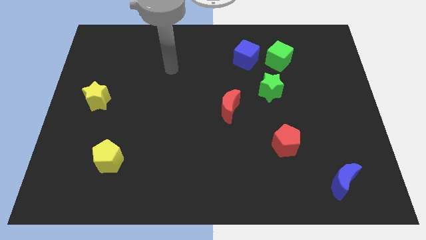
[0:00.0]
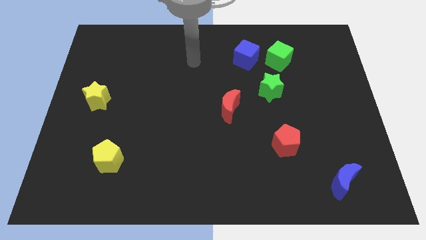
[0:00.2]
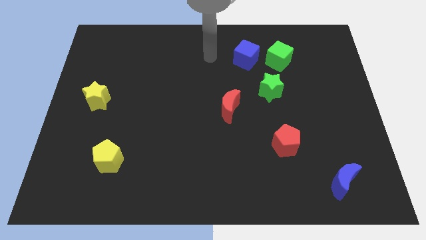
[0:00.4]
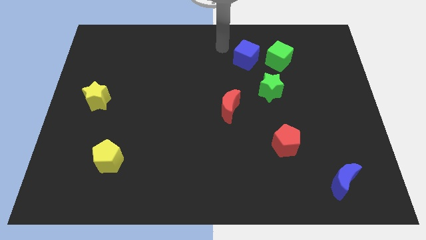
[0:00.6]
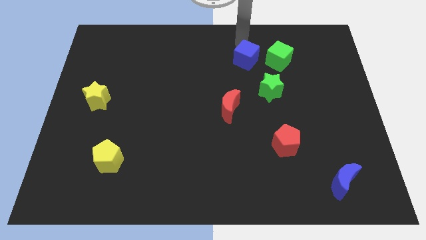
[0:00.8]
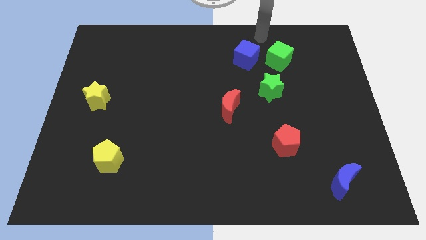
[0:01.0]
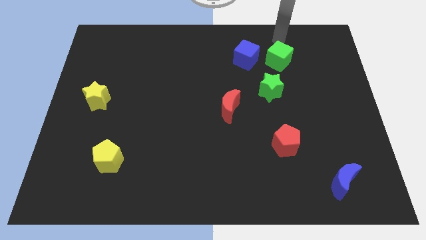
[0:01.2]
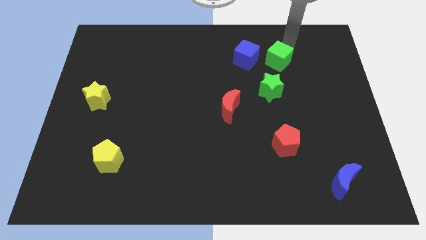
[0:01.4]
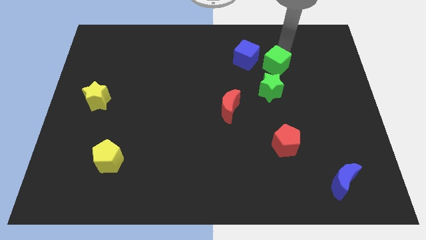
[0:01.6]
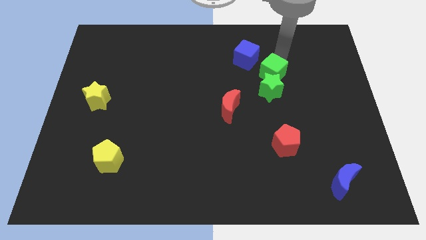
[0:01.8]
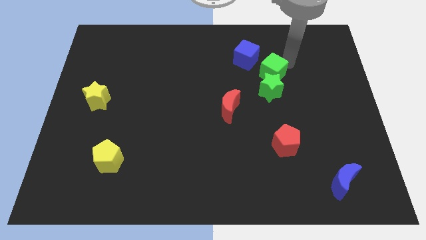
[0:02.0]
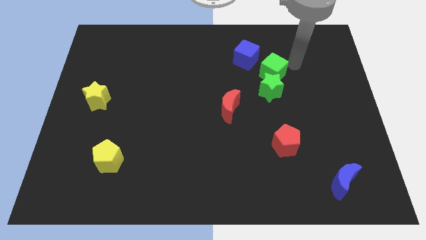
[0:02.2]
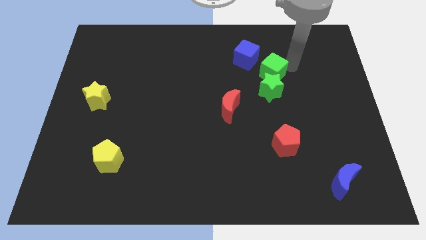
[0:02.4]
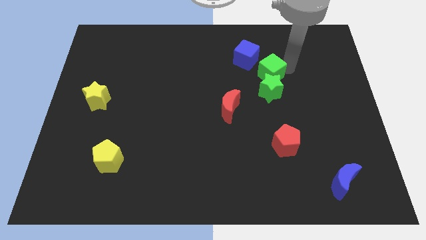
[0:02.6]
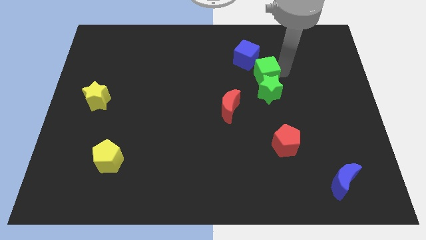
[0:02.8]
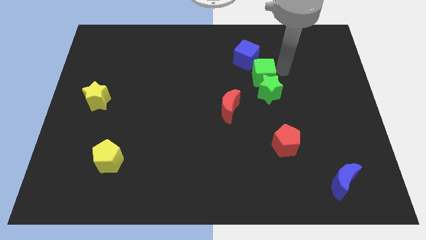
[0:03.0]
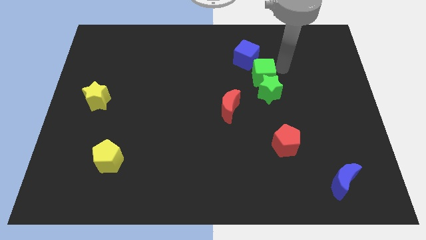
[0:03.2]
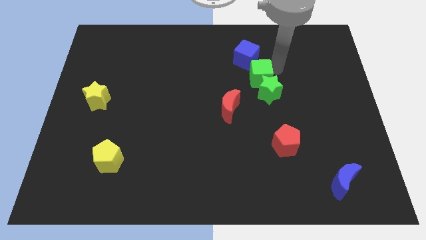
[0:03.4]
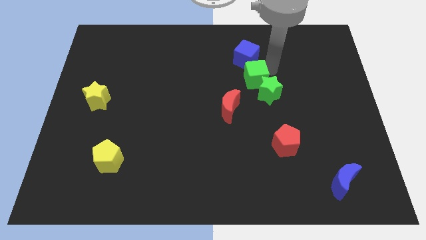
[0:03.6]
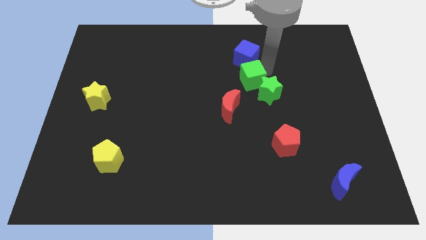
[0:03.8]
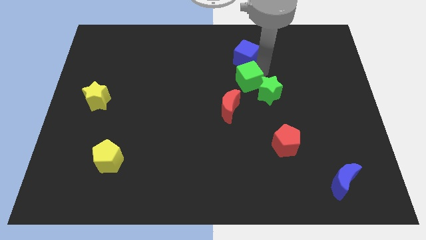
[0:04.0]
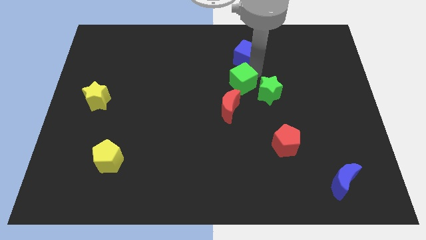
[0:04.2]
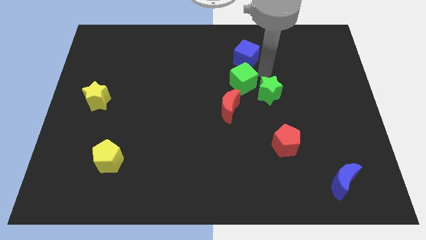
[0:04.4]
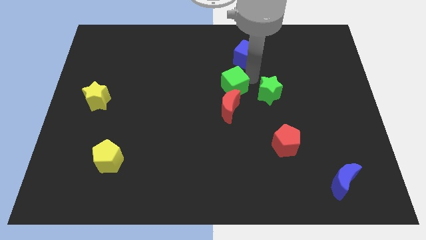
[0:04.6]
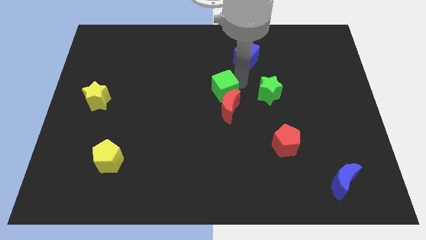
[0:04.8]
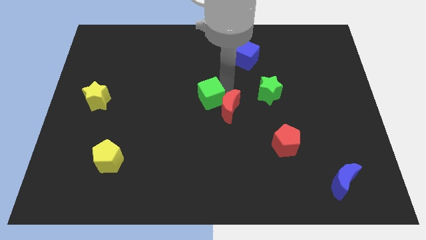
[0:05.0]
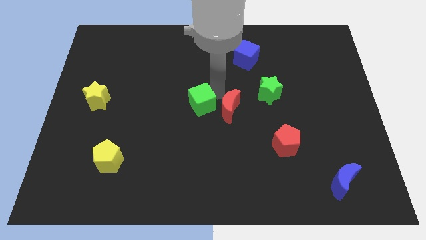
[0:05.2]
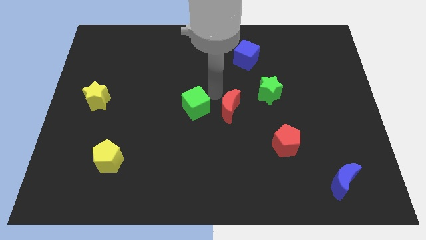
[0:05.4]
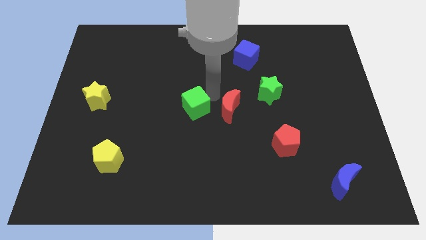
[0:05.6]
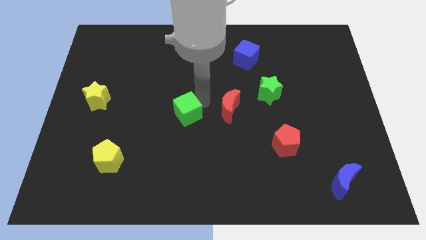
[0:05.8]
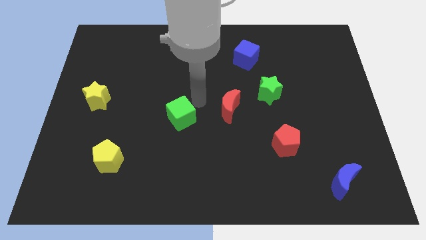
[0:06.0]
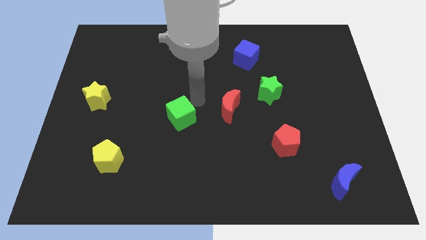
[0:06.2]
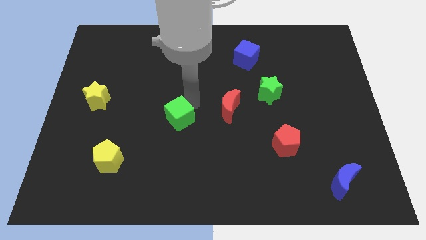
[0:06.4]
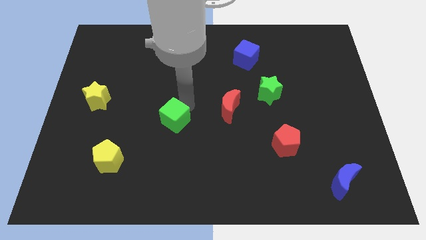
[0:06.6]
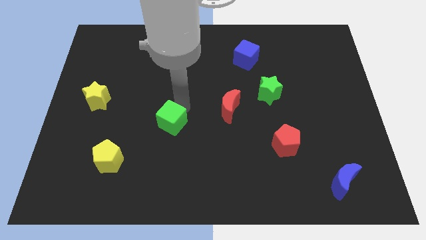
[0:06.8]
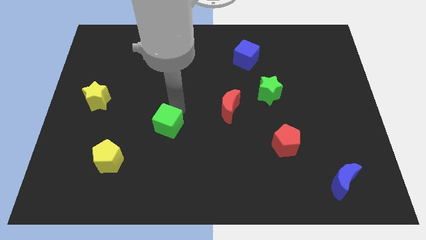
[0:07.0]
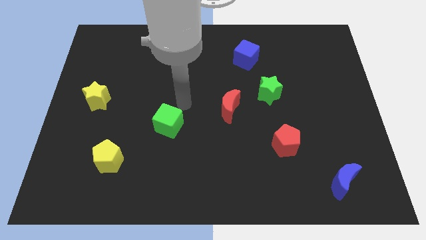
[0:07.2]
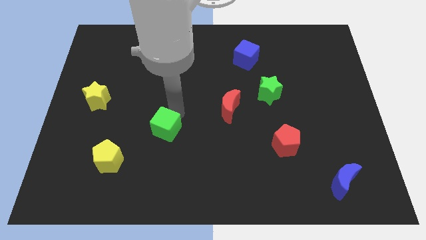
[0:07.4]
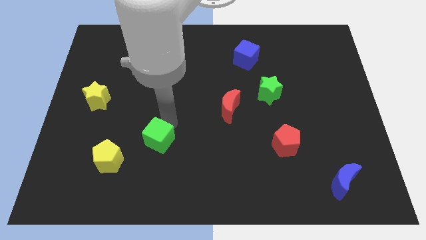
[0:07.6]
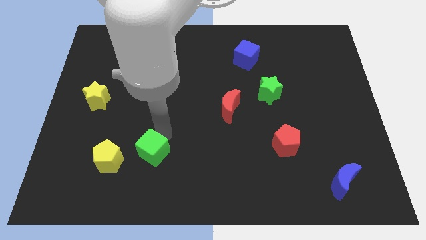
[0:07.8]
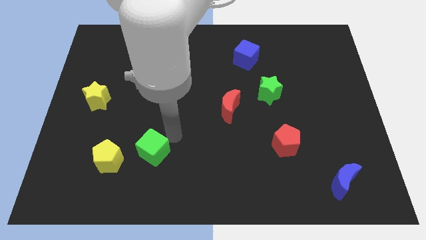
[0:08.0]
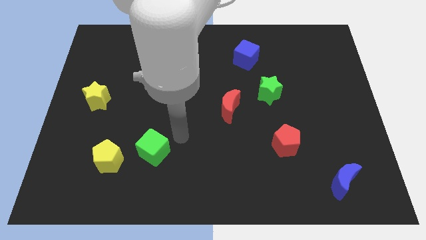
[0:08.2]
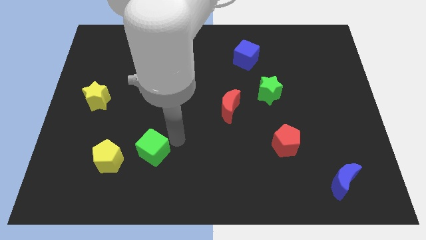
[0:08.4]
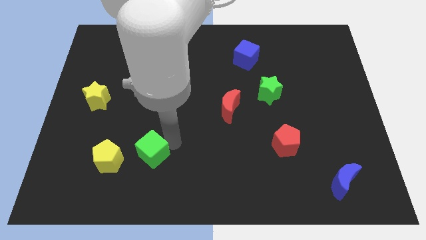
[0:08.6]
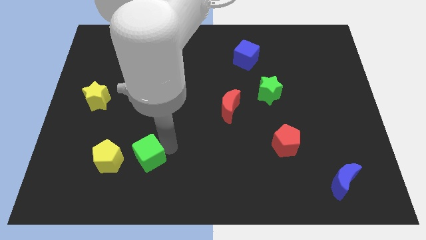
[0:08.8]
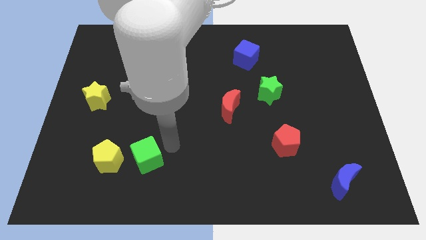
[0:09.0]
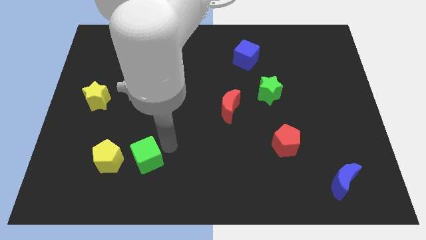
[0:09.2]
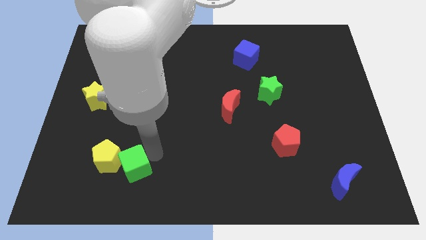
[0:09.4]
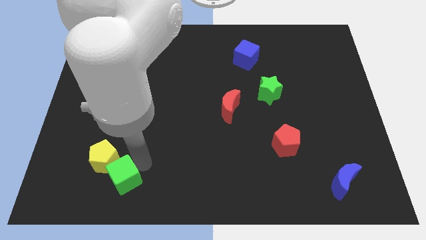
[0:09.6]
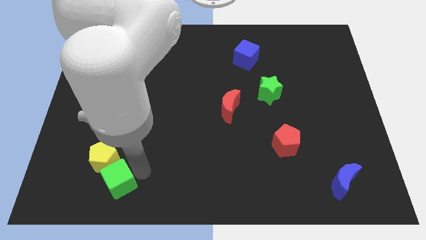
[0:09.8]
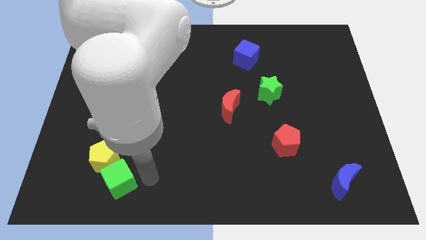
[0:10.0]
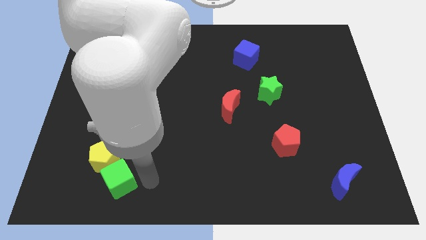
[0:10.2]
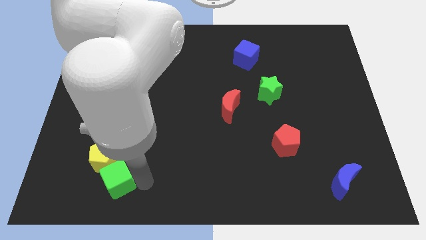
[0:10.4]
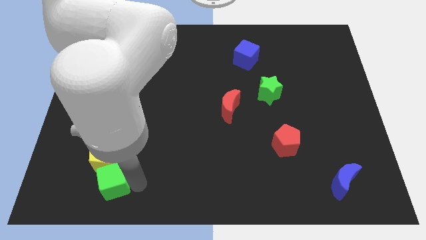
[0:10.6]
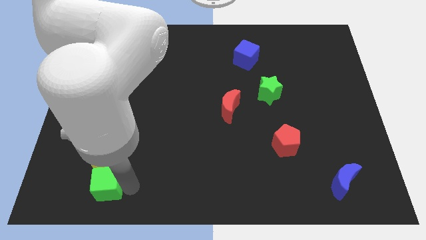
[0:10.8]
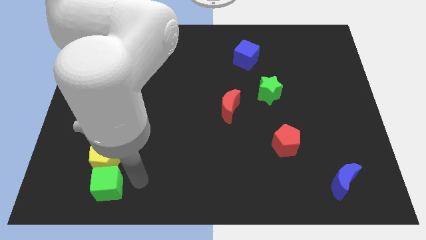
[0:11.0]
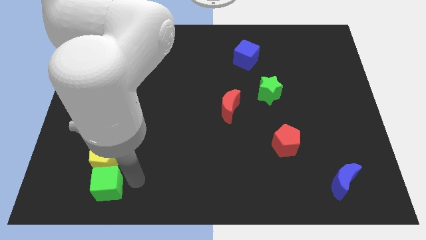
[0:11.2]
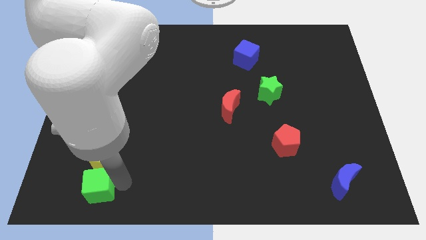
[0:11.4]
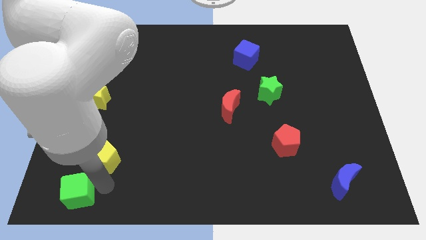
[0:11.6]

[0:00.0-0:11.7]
push the green cube to the bottom left corner

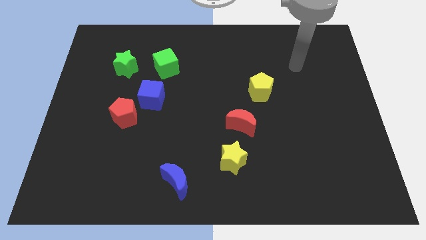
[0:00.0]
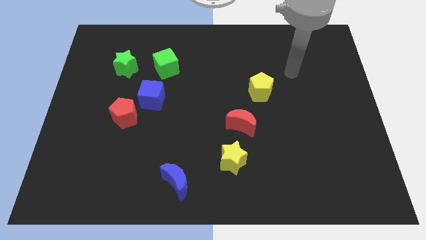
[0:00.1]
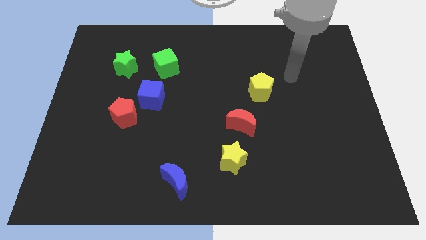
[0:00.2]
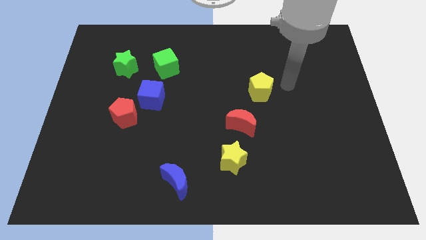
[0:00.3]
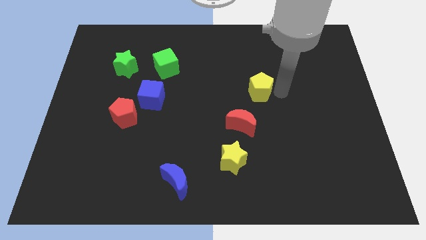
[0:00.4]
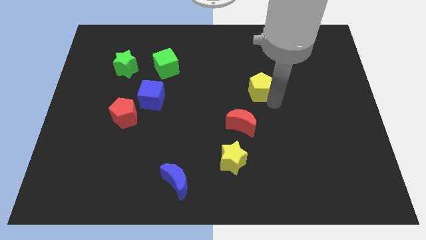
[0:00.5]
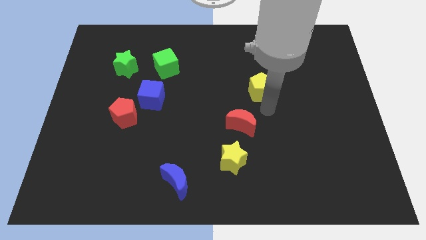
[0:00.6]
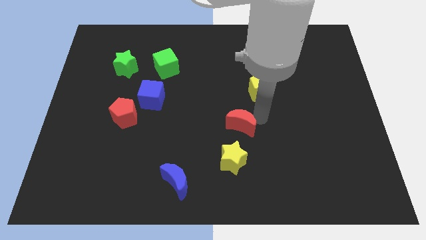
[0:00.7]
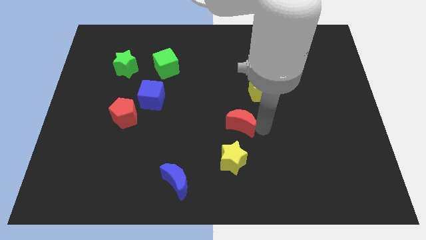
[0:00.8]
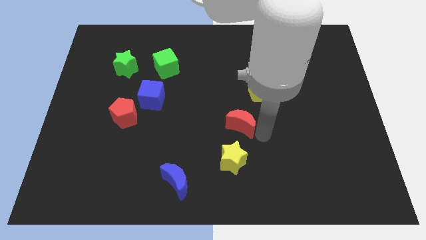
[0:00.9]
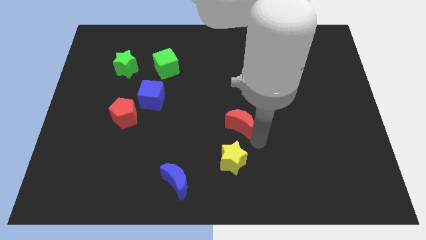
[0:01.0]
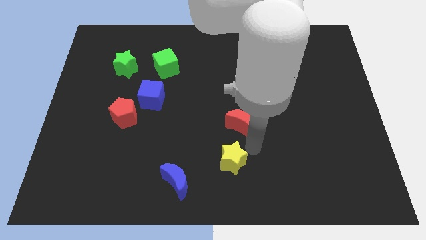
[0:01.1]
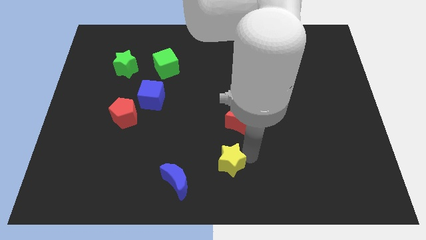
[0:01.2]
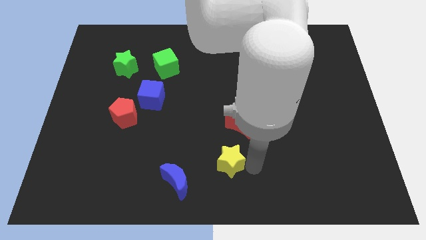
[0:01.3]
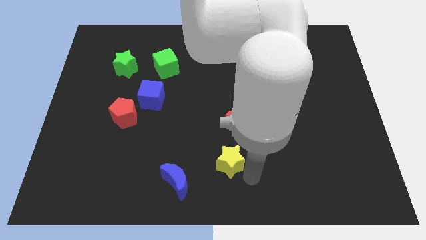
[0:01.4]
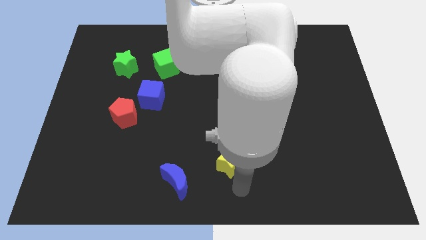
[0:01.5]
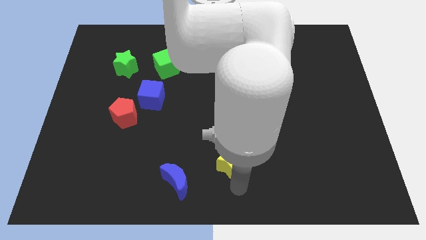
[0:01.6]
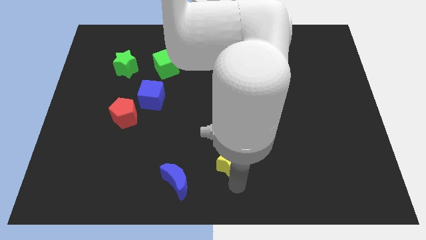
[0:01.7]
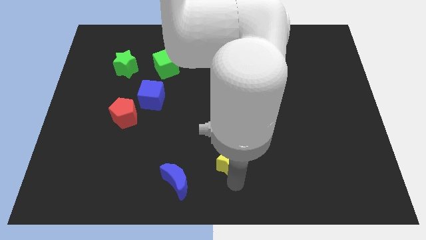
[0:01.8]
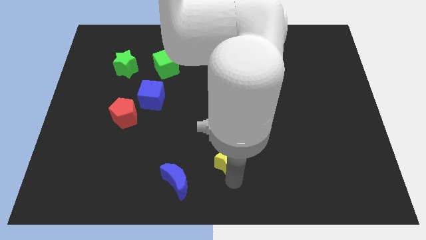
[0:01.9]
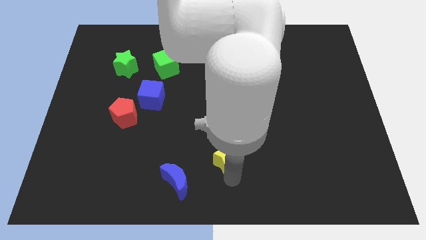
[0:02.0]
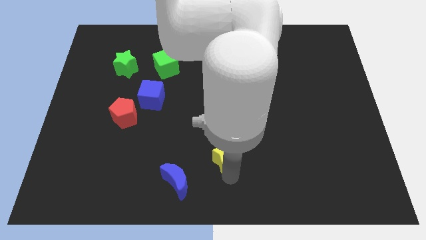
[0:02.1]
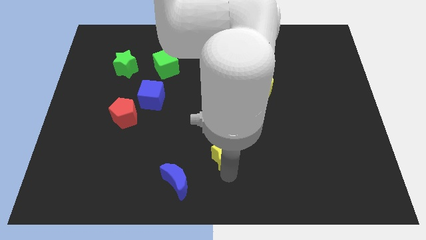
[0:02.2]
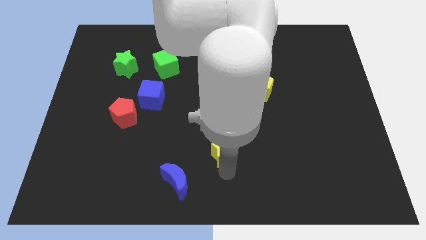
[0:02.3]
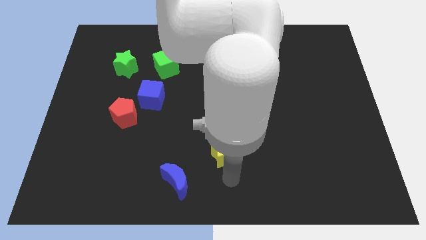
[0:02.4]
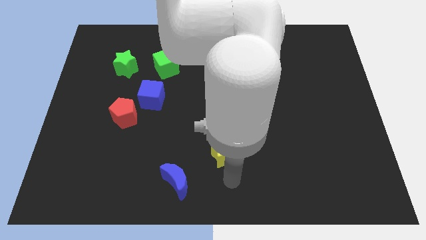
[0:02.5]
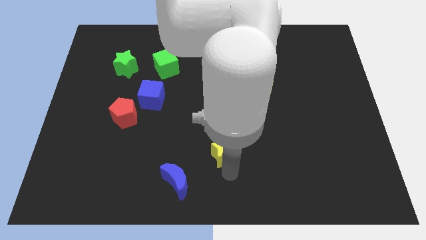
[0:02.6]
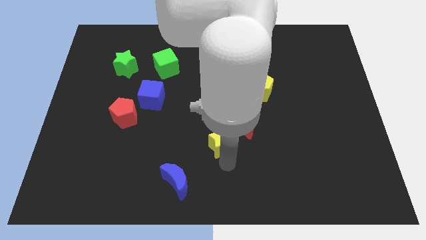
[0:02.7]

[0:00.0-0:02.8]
move the yellow star to the middle
